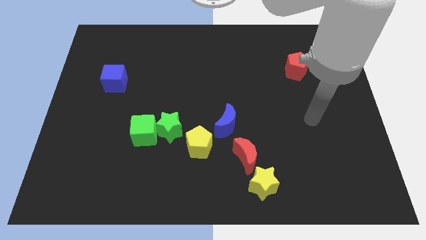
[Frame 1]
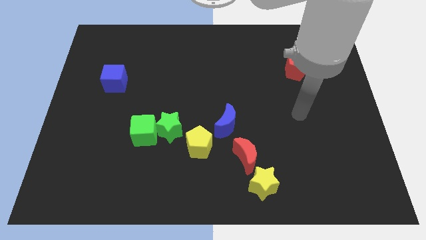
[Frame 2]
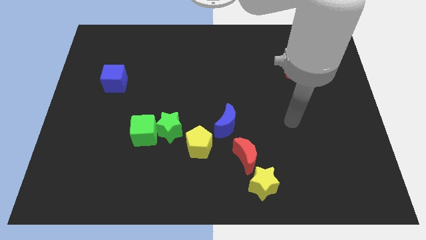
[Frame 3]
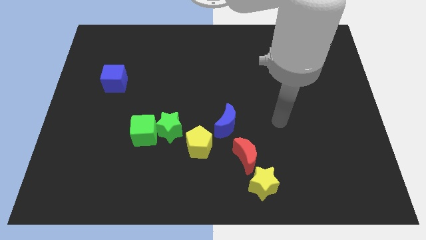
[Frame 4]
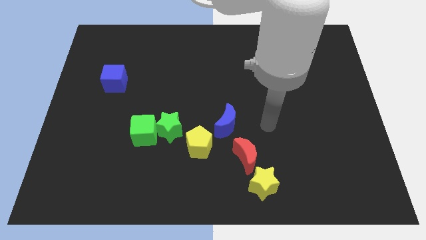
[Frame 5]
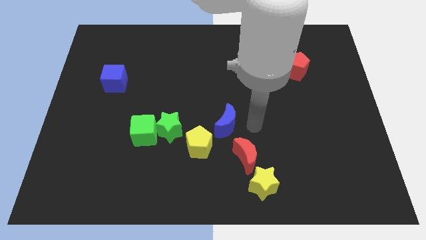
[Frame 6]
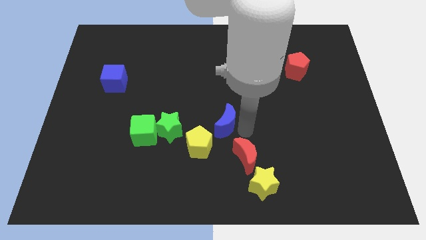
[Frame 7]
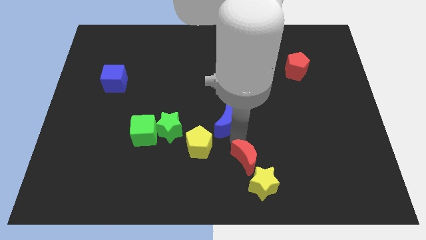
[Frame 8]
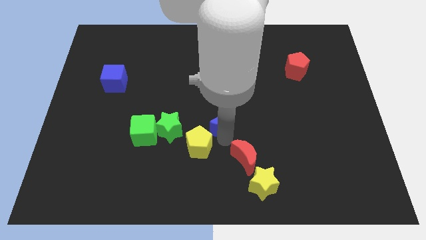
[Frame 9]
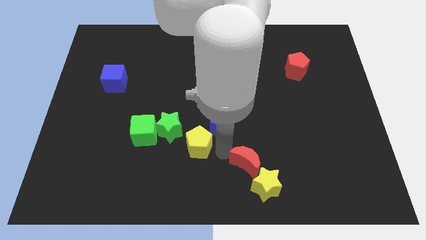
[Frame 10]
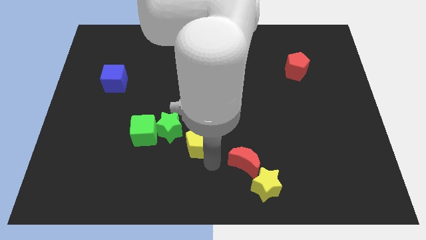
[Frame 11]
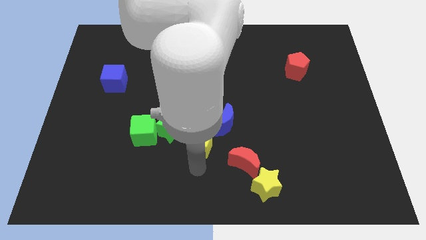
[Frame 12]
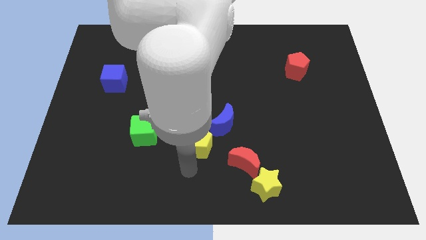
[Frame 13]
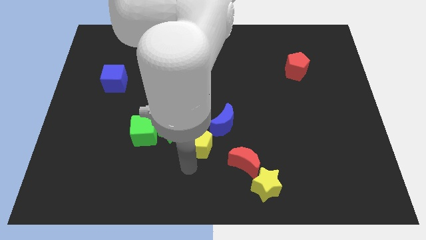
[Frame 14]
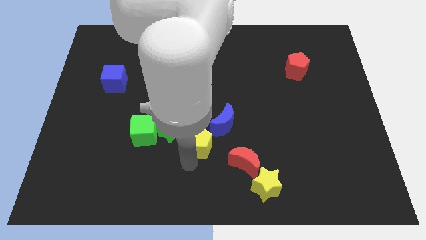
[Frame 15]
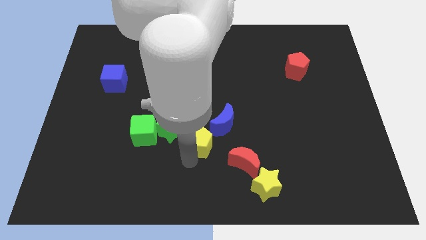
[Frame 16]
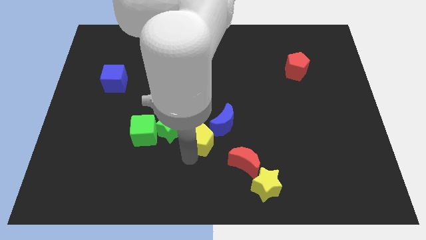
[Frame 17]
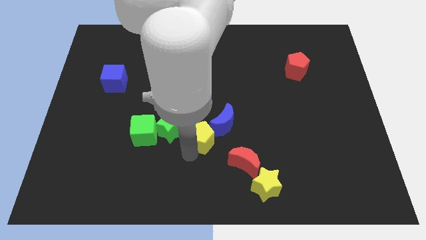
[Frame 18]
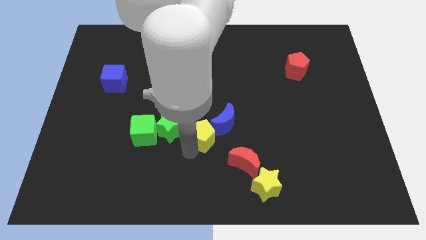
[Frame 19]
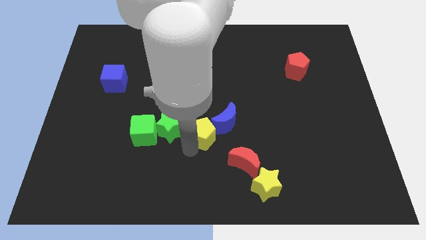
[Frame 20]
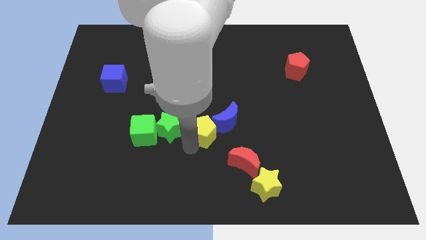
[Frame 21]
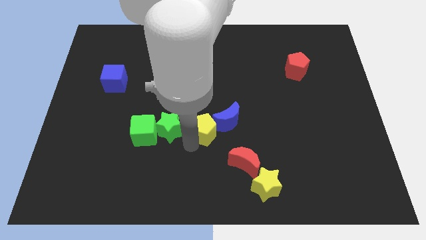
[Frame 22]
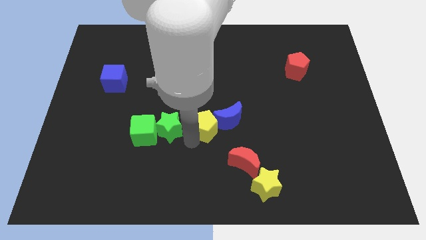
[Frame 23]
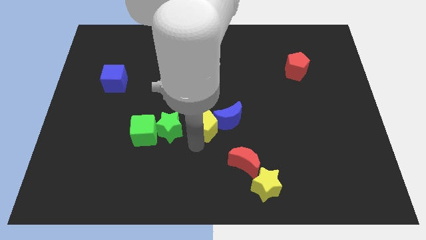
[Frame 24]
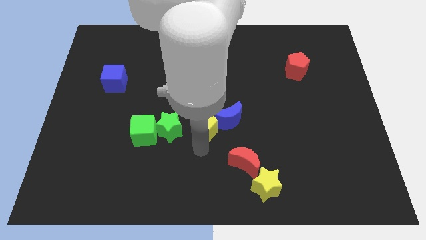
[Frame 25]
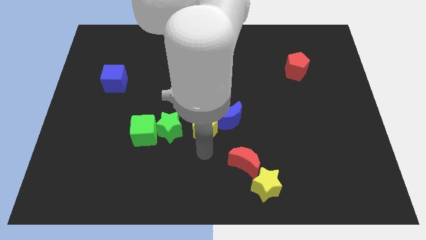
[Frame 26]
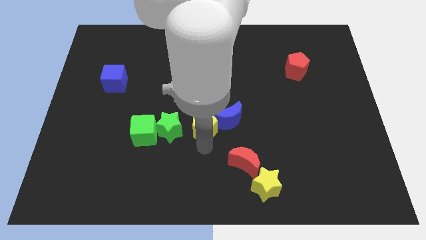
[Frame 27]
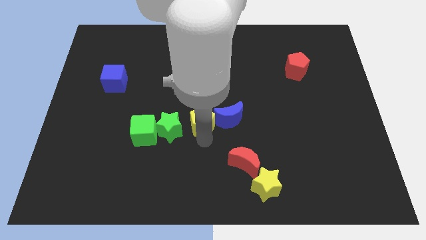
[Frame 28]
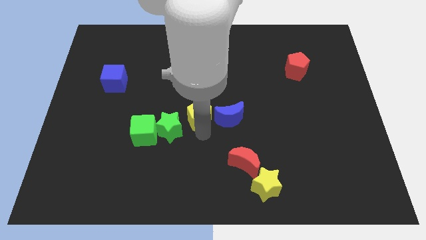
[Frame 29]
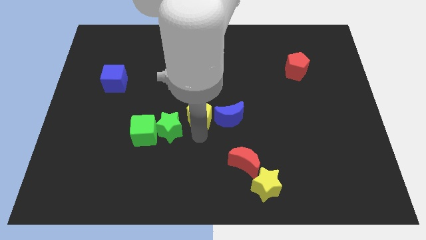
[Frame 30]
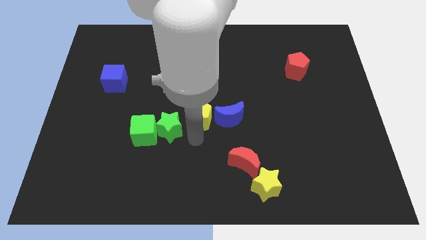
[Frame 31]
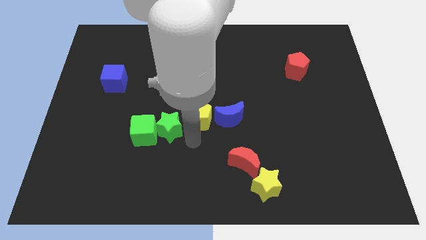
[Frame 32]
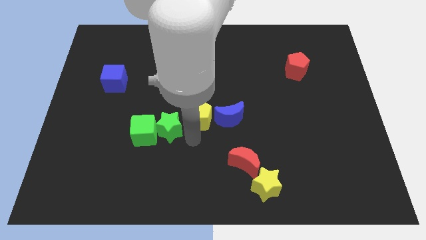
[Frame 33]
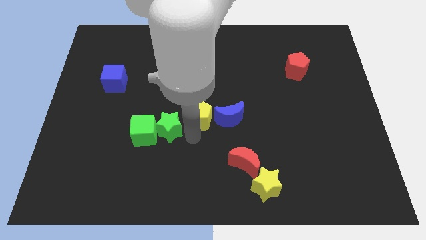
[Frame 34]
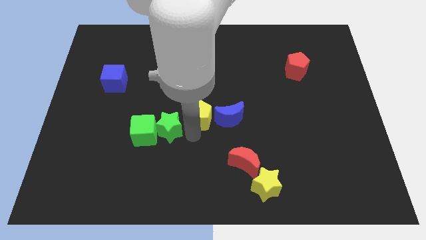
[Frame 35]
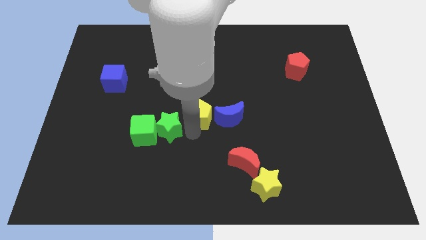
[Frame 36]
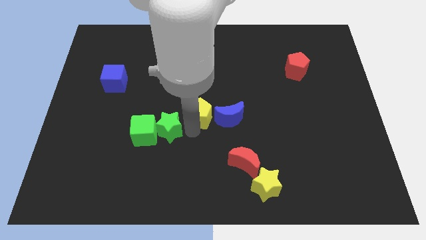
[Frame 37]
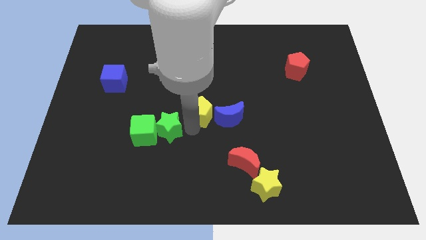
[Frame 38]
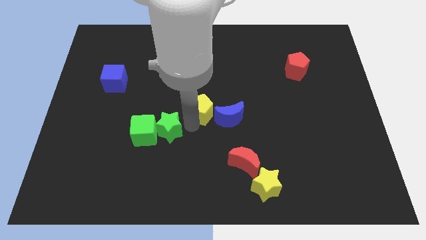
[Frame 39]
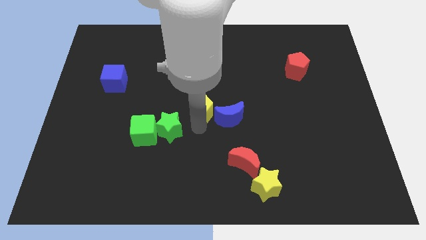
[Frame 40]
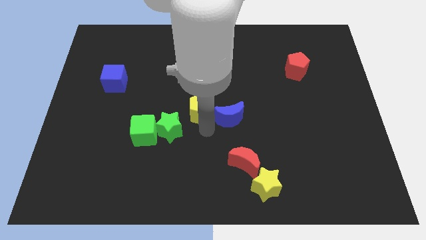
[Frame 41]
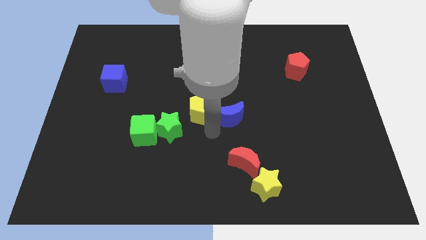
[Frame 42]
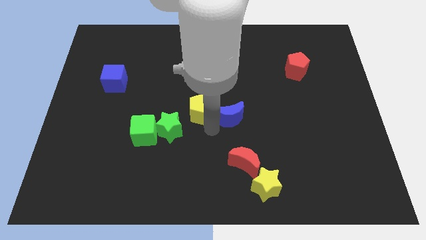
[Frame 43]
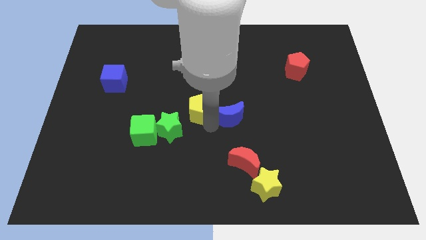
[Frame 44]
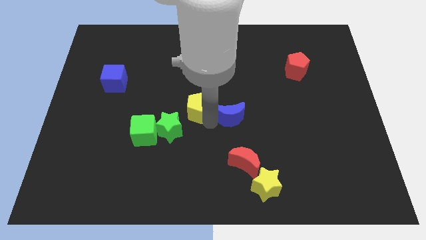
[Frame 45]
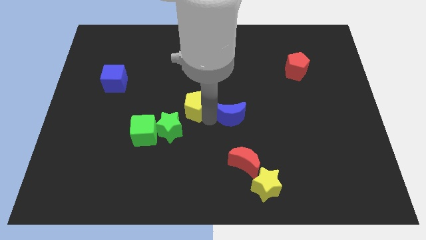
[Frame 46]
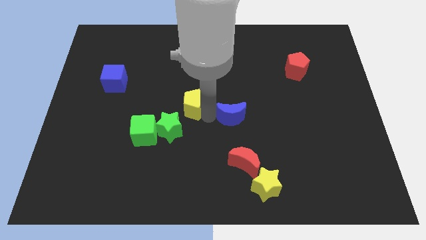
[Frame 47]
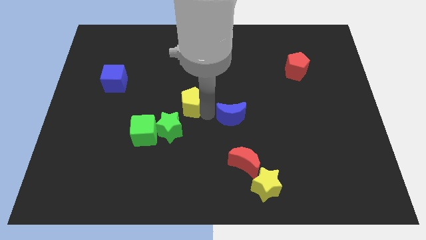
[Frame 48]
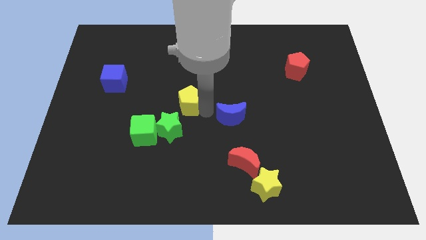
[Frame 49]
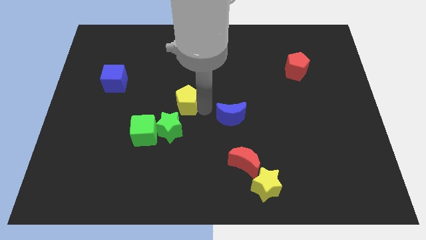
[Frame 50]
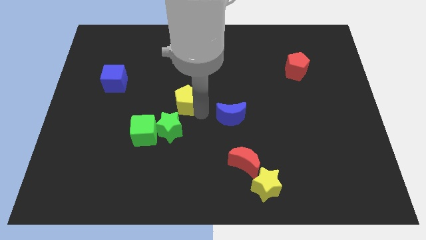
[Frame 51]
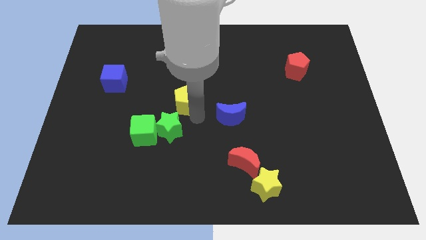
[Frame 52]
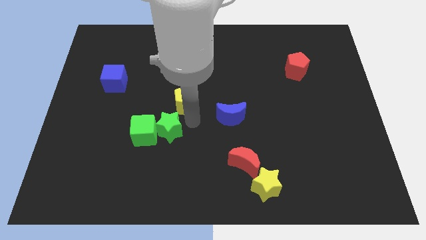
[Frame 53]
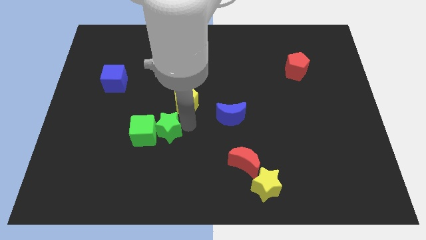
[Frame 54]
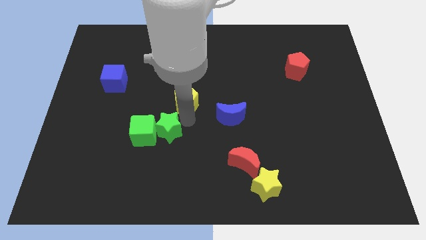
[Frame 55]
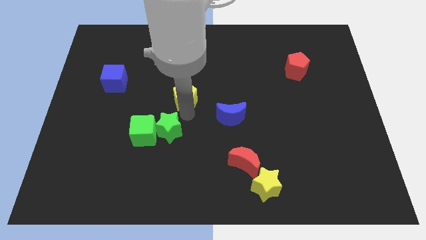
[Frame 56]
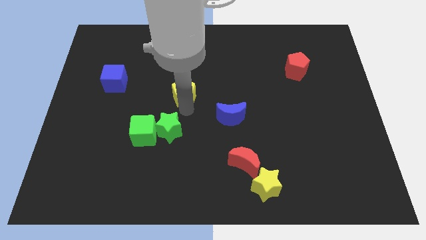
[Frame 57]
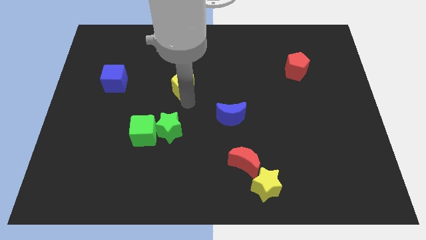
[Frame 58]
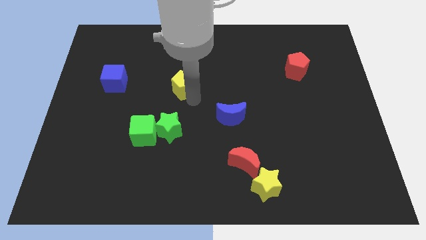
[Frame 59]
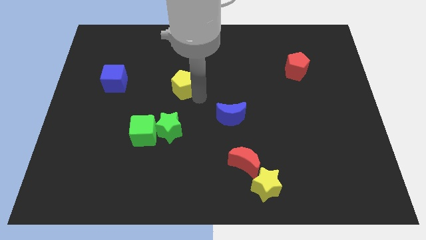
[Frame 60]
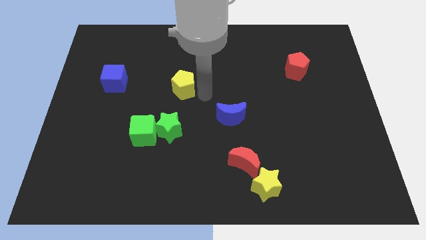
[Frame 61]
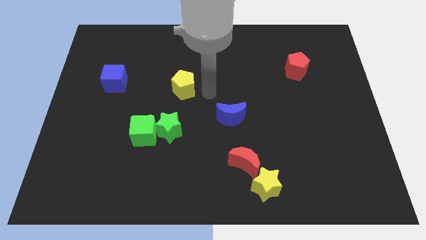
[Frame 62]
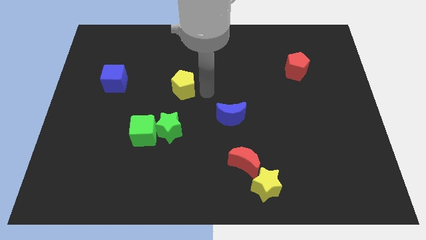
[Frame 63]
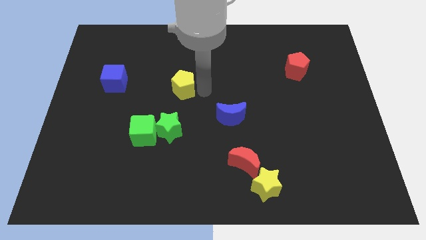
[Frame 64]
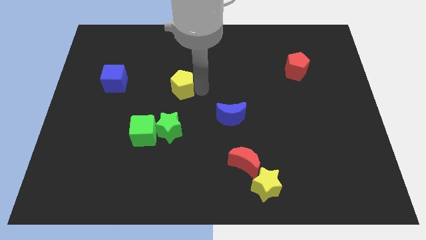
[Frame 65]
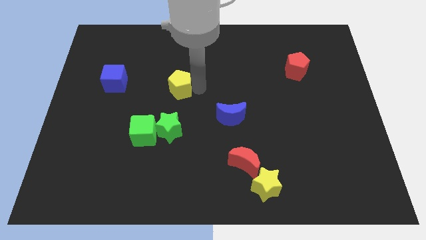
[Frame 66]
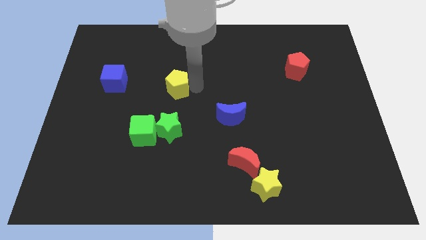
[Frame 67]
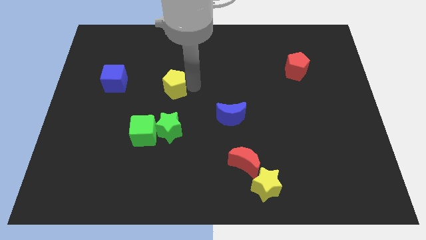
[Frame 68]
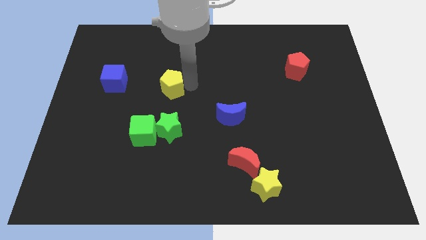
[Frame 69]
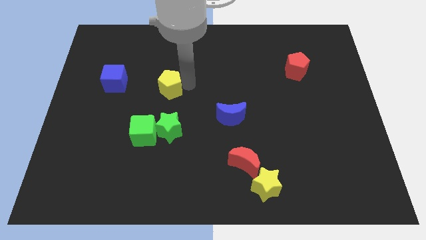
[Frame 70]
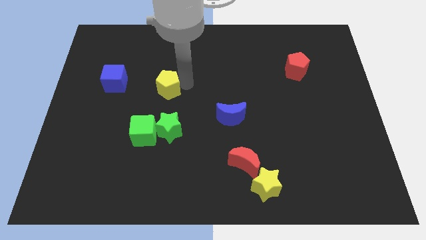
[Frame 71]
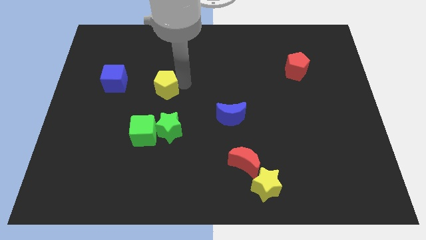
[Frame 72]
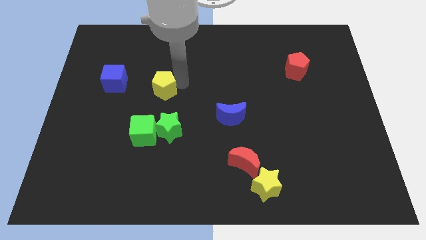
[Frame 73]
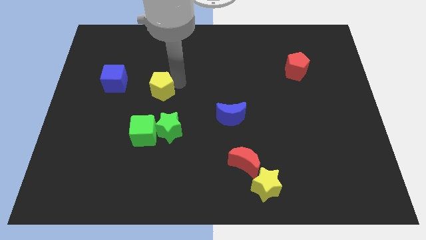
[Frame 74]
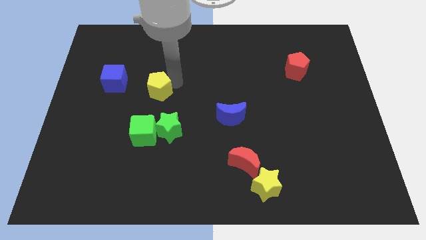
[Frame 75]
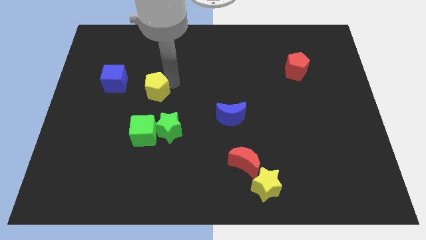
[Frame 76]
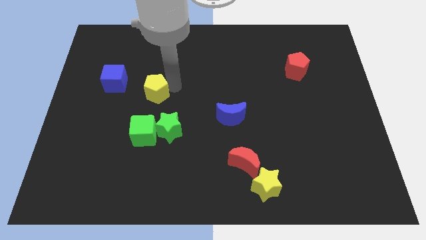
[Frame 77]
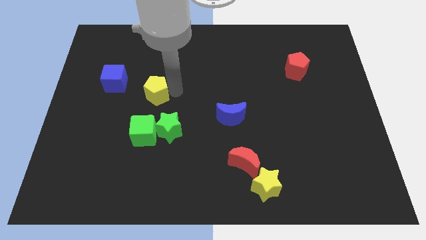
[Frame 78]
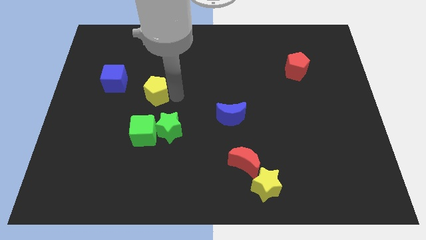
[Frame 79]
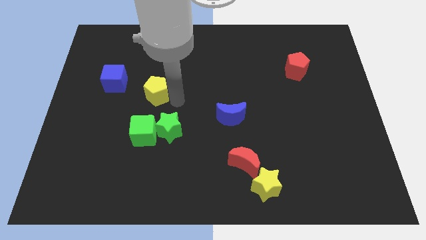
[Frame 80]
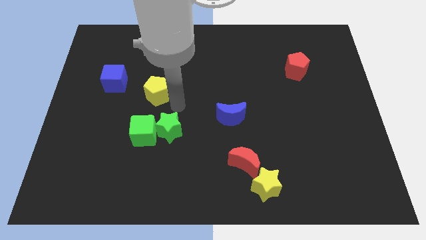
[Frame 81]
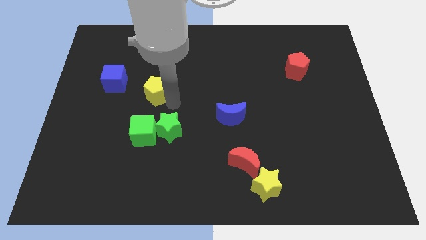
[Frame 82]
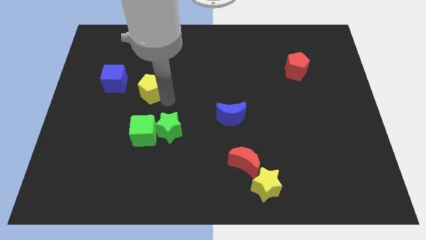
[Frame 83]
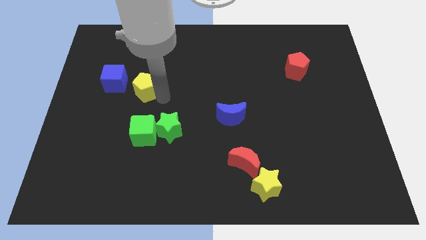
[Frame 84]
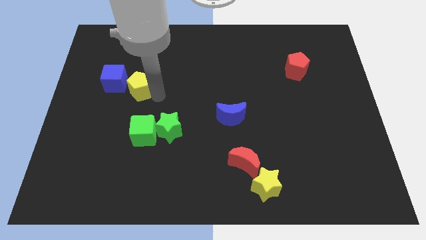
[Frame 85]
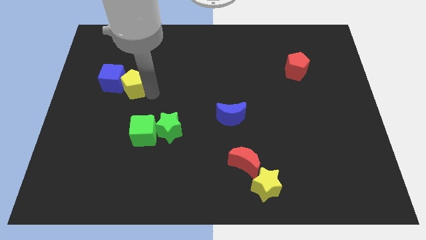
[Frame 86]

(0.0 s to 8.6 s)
push the yellow pentagon towards the blue cube
